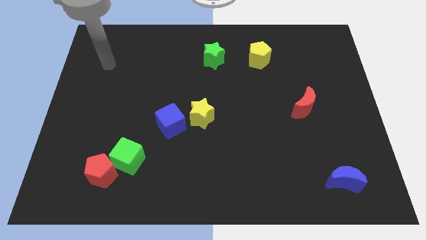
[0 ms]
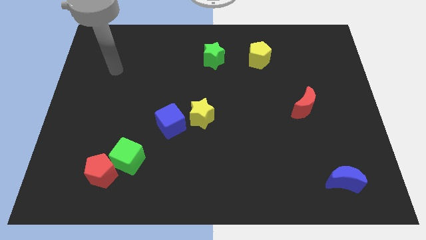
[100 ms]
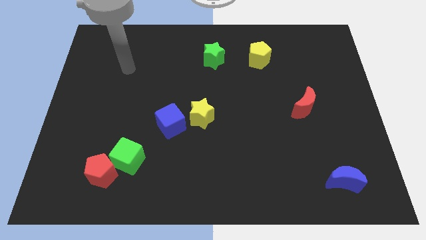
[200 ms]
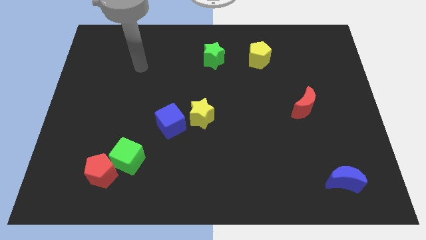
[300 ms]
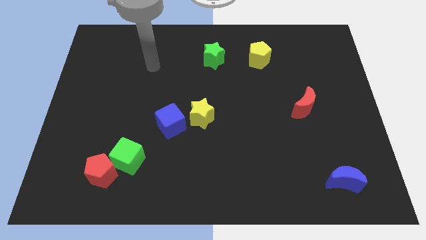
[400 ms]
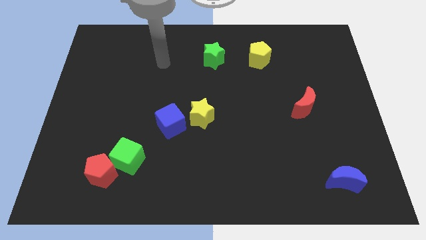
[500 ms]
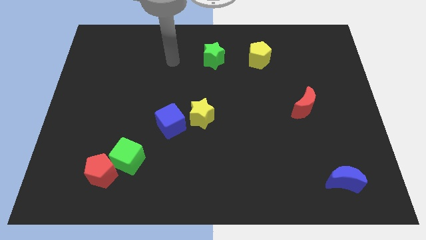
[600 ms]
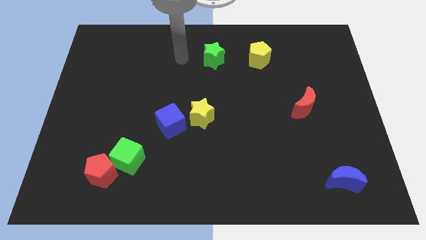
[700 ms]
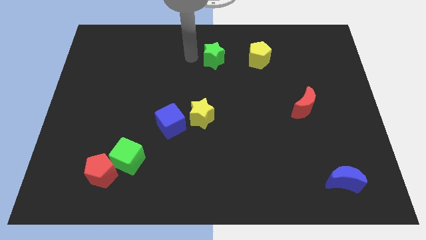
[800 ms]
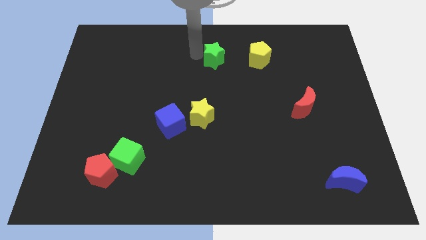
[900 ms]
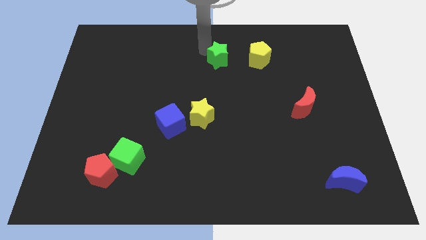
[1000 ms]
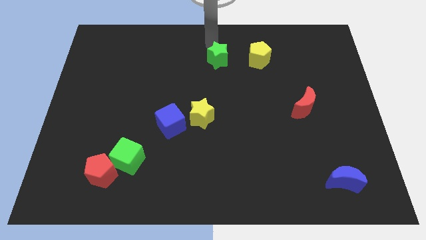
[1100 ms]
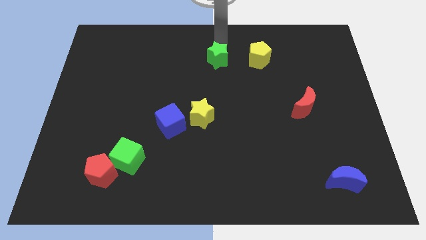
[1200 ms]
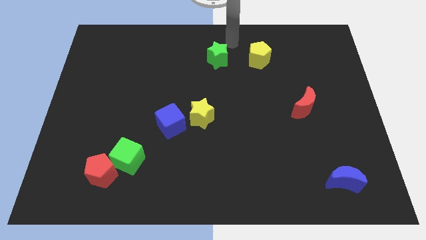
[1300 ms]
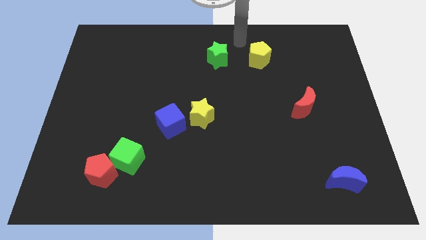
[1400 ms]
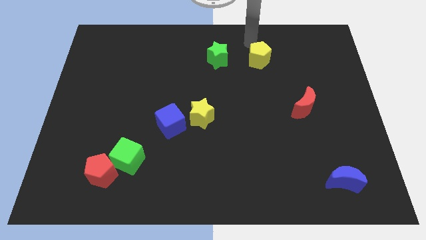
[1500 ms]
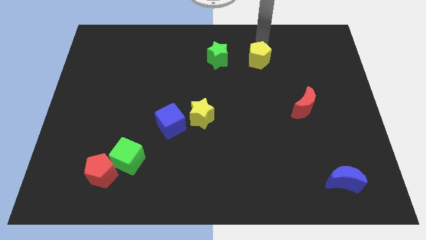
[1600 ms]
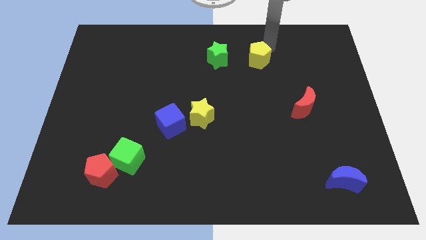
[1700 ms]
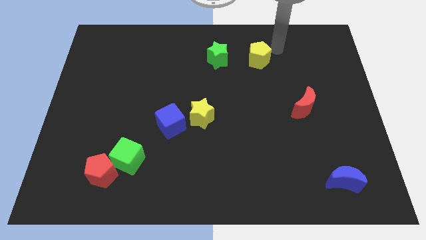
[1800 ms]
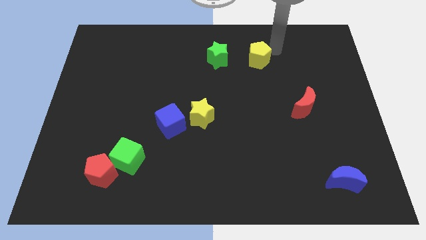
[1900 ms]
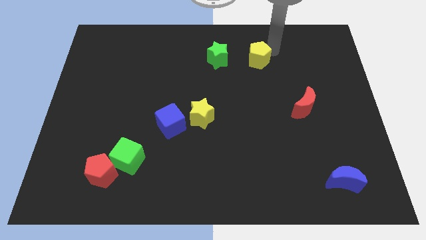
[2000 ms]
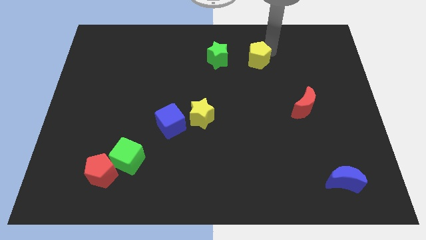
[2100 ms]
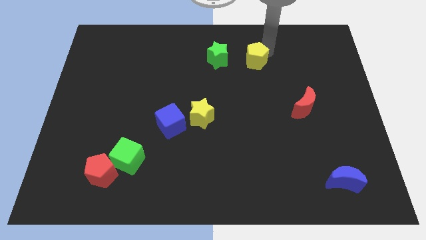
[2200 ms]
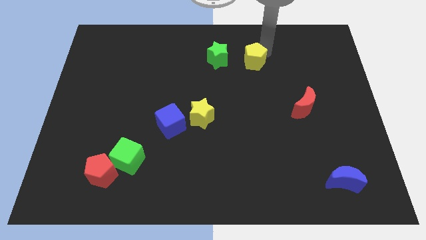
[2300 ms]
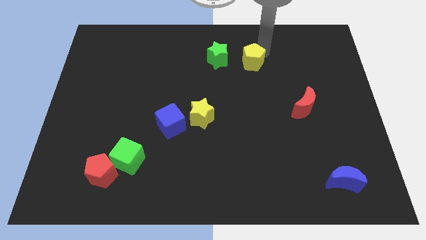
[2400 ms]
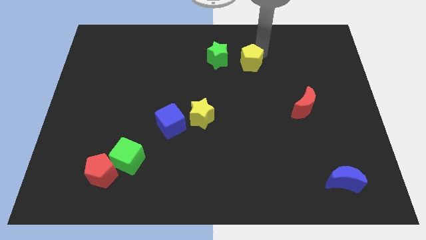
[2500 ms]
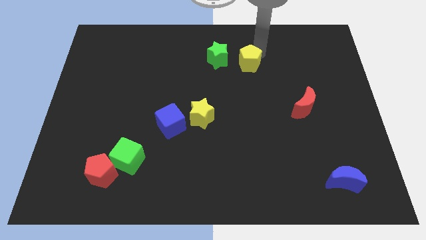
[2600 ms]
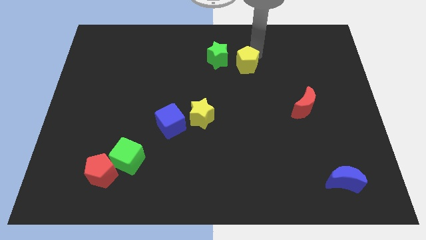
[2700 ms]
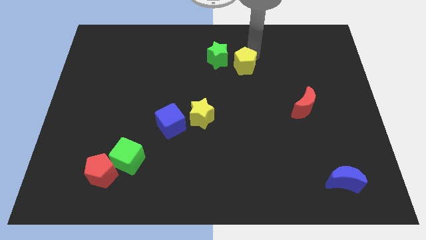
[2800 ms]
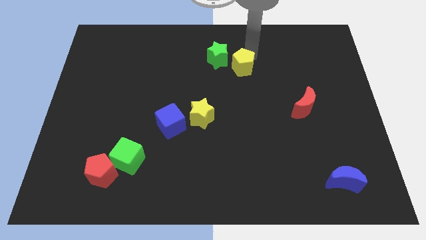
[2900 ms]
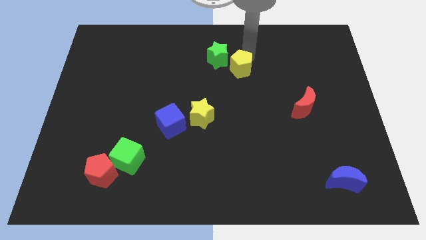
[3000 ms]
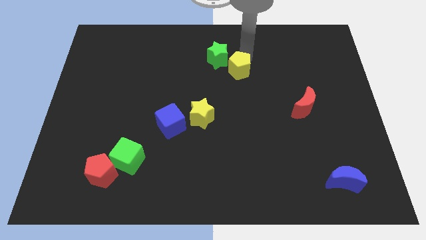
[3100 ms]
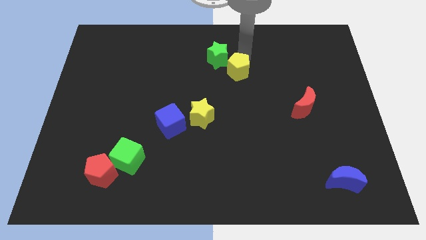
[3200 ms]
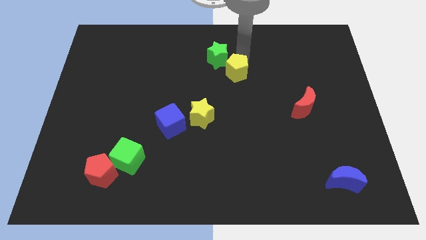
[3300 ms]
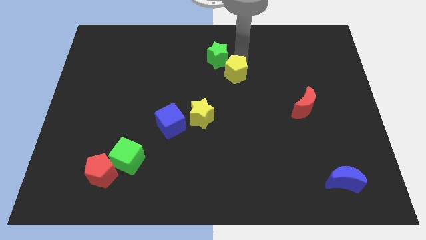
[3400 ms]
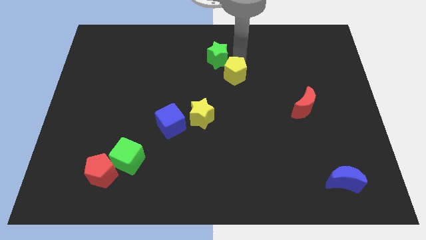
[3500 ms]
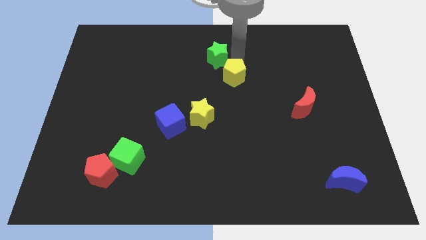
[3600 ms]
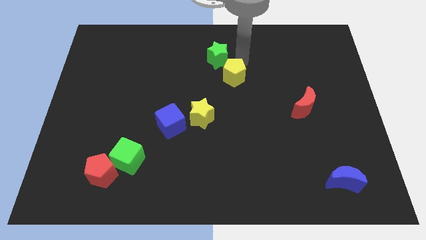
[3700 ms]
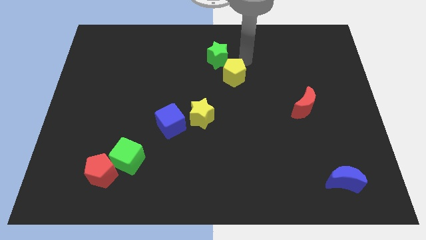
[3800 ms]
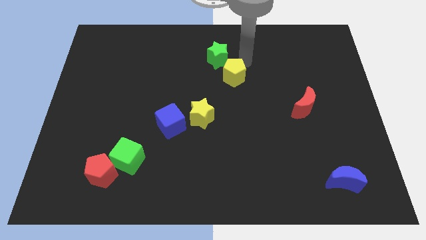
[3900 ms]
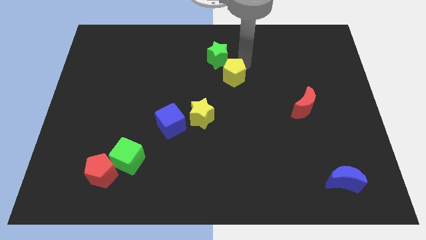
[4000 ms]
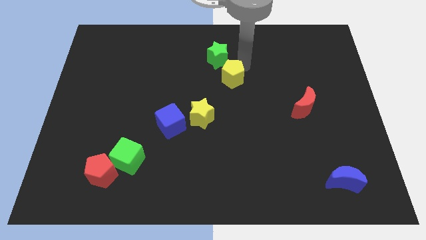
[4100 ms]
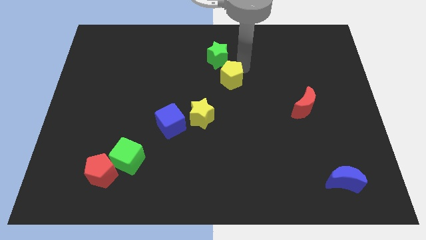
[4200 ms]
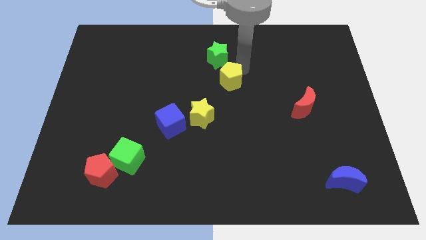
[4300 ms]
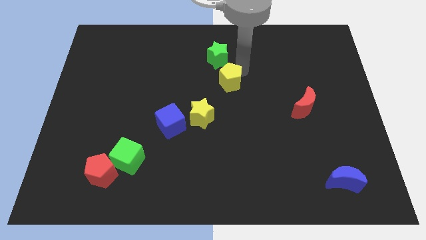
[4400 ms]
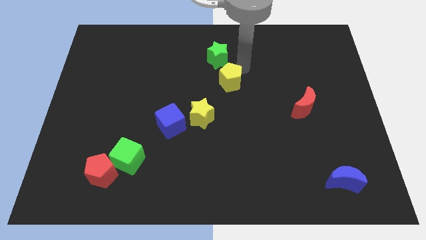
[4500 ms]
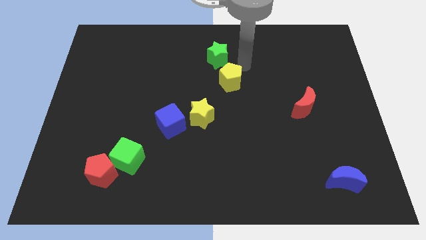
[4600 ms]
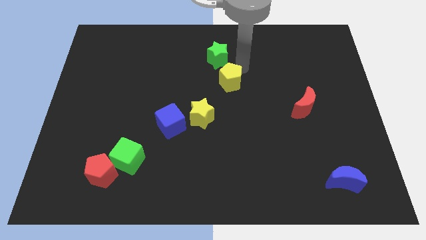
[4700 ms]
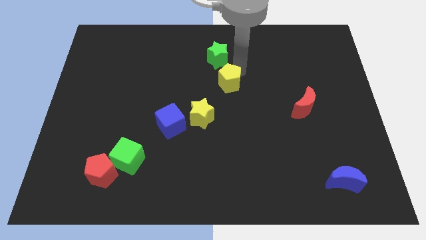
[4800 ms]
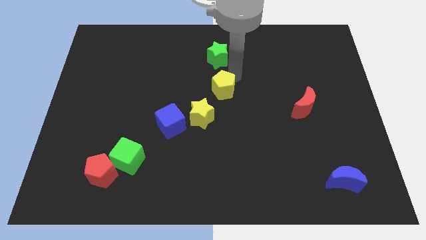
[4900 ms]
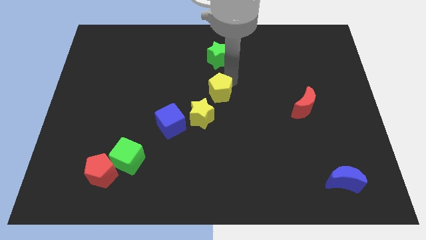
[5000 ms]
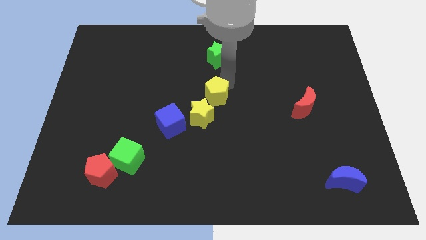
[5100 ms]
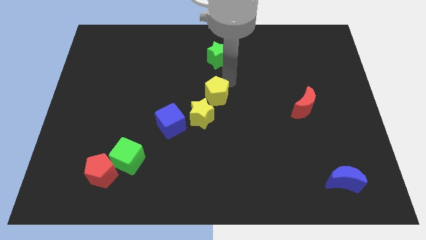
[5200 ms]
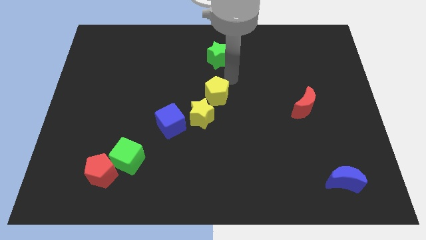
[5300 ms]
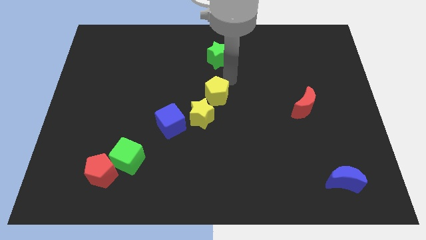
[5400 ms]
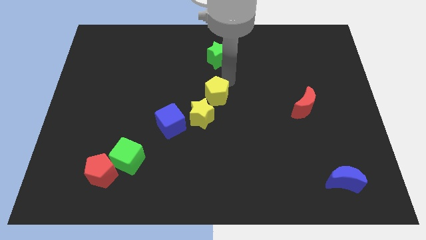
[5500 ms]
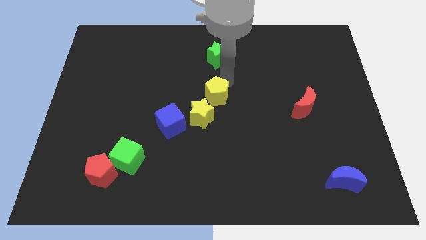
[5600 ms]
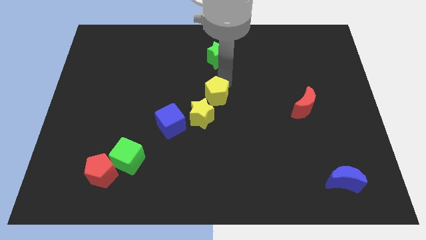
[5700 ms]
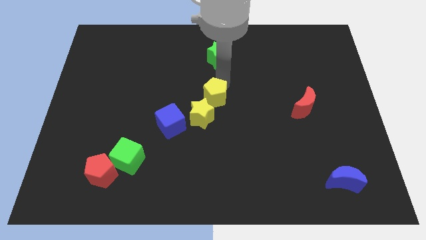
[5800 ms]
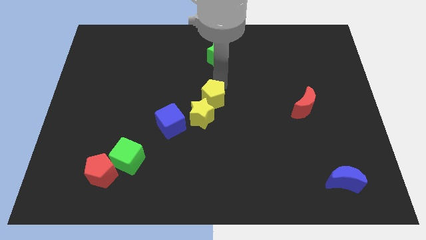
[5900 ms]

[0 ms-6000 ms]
slide the yellow pentagon towards the yellow star

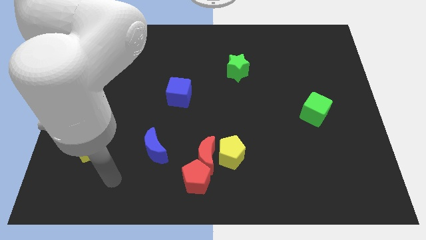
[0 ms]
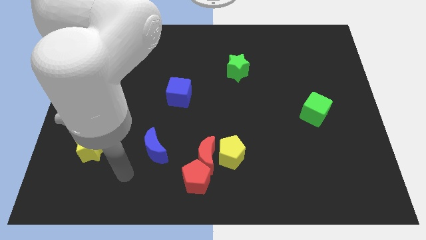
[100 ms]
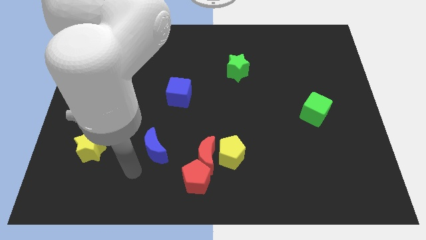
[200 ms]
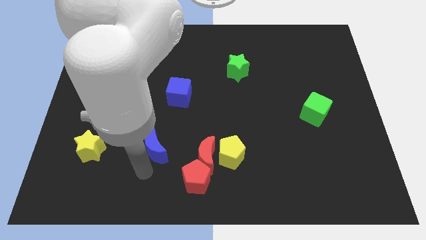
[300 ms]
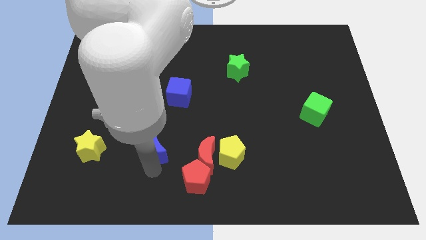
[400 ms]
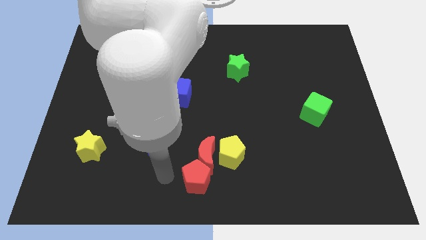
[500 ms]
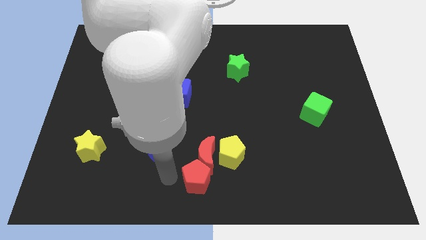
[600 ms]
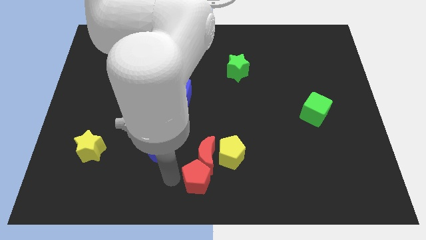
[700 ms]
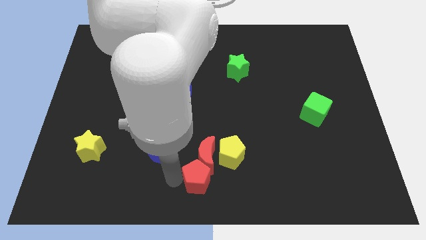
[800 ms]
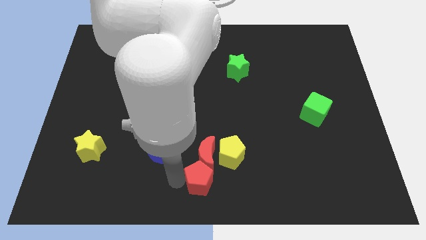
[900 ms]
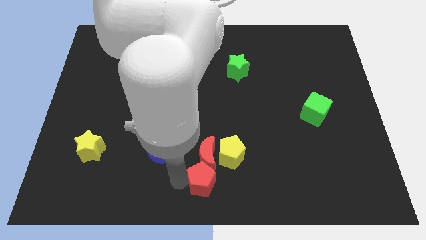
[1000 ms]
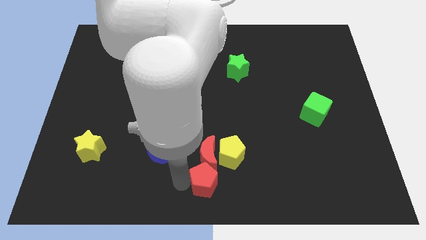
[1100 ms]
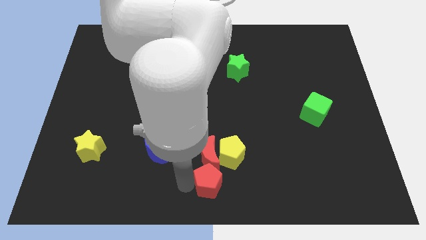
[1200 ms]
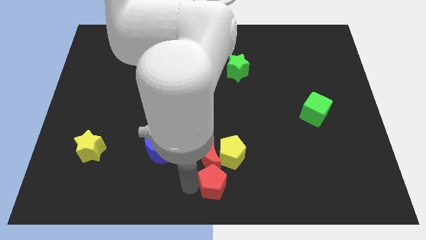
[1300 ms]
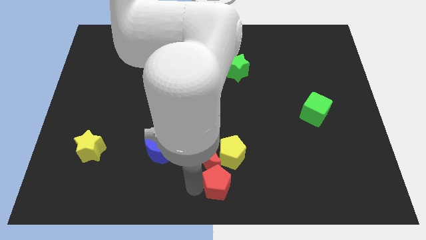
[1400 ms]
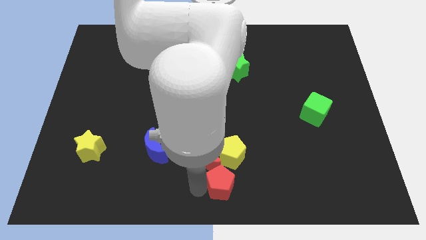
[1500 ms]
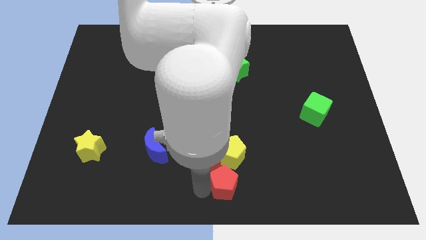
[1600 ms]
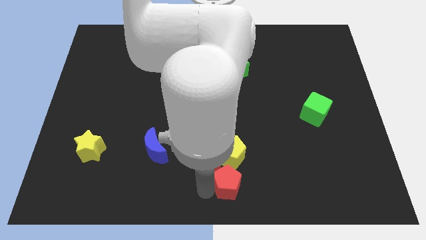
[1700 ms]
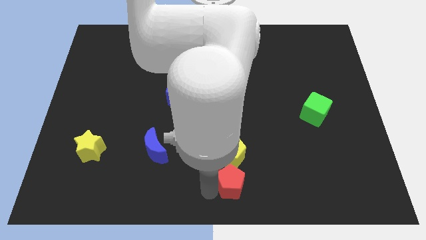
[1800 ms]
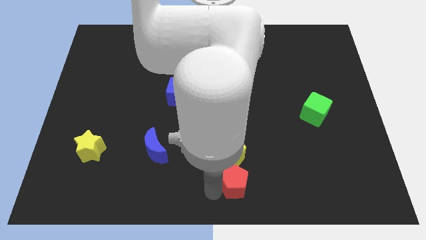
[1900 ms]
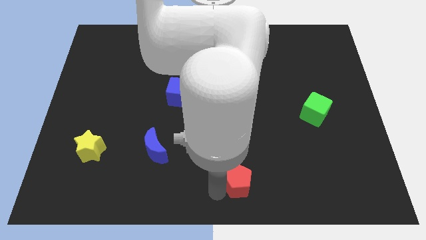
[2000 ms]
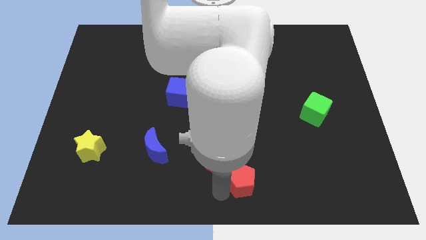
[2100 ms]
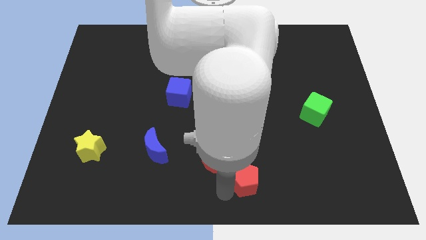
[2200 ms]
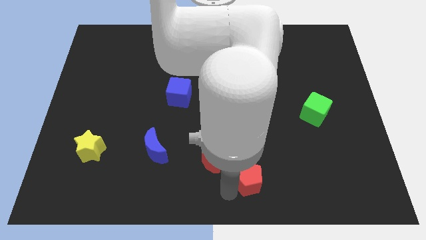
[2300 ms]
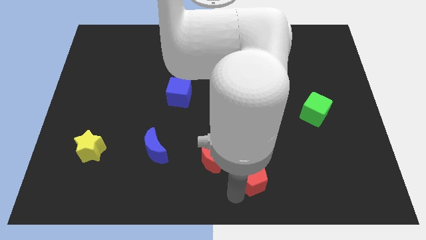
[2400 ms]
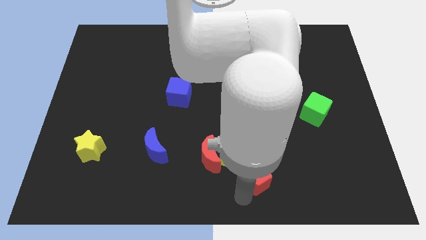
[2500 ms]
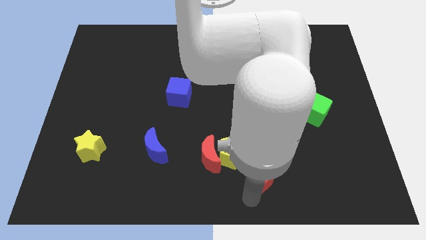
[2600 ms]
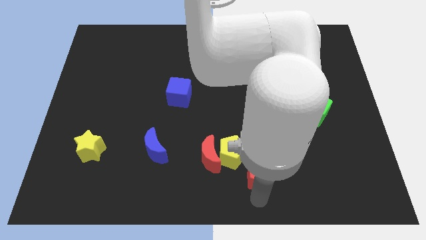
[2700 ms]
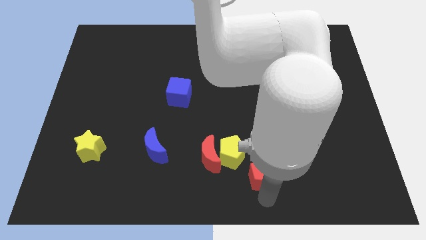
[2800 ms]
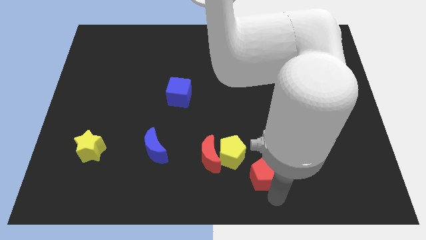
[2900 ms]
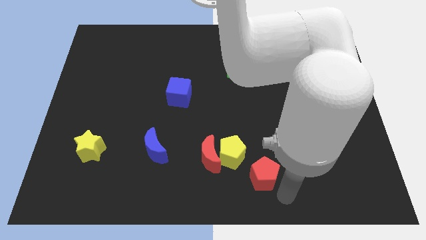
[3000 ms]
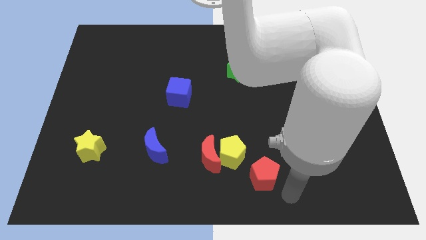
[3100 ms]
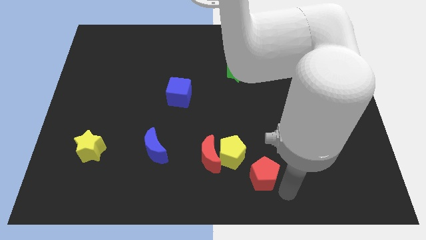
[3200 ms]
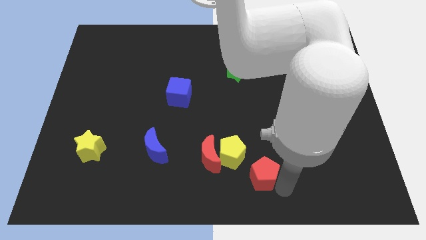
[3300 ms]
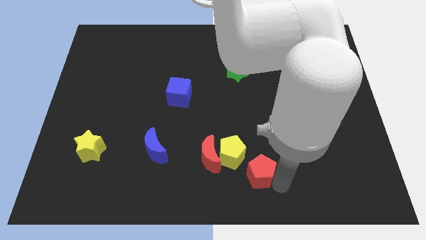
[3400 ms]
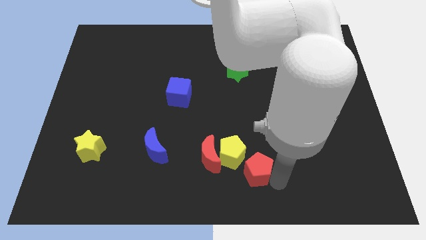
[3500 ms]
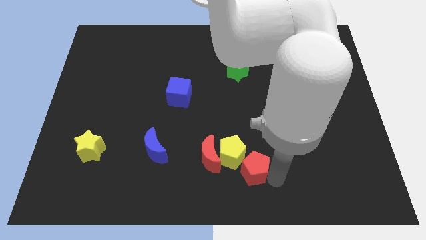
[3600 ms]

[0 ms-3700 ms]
move the red pentagon towards the yellow pentagon
